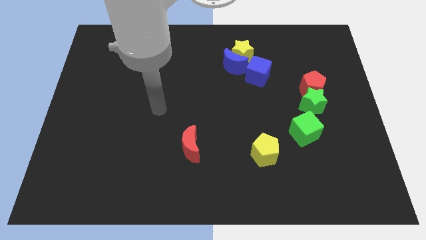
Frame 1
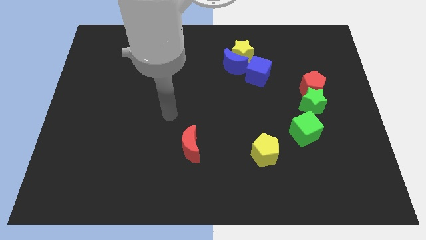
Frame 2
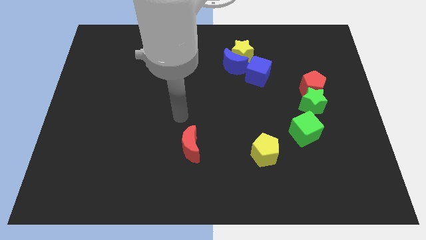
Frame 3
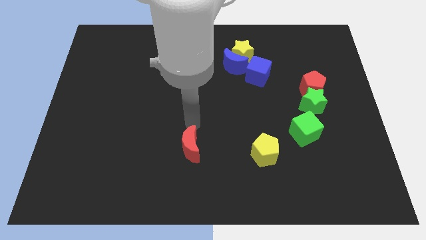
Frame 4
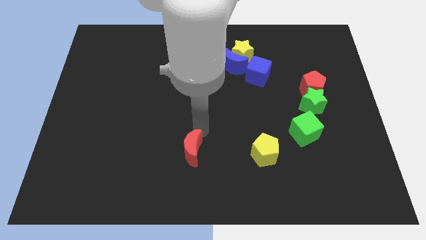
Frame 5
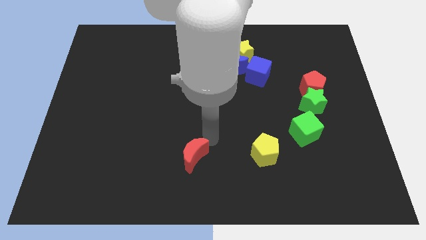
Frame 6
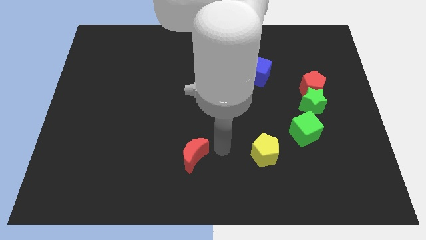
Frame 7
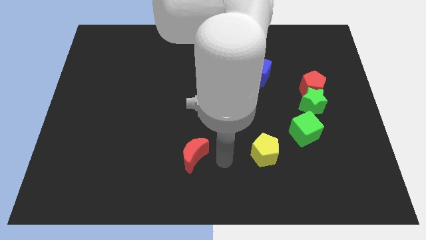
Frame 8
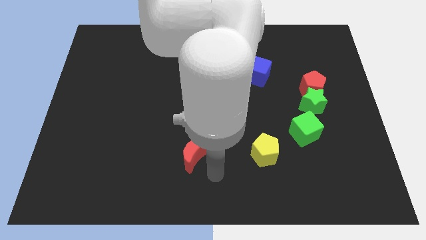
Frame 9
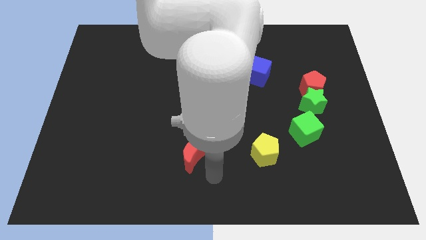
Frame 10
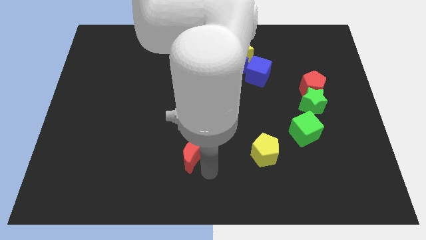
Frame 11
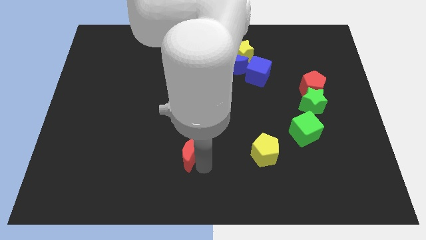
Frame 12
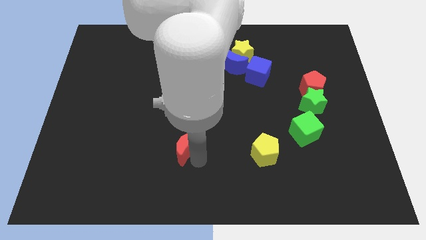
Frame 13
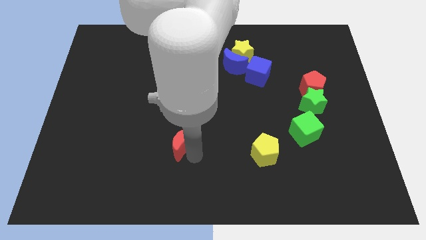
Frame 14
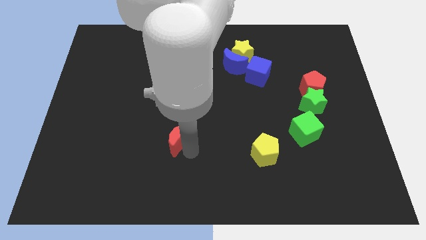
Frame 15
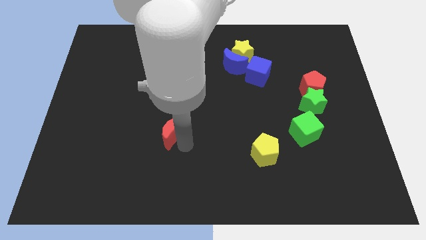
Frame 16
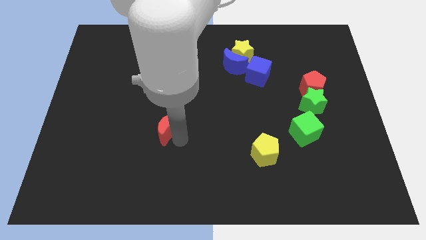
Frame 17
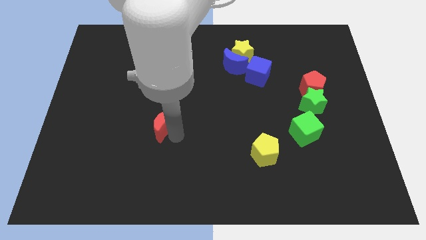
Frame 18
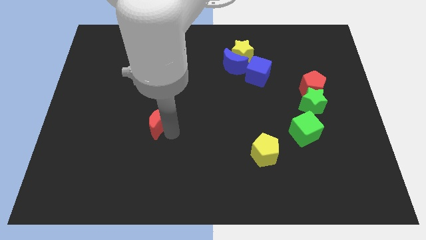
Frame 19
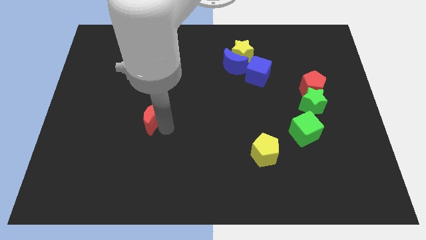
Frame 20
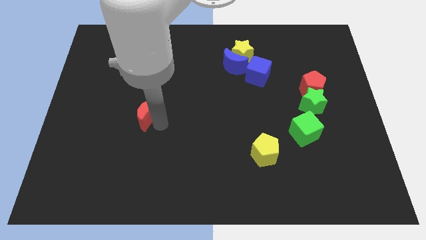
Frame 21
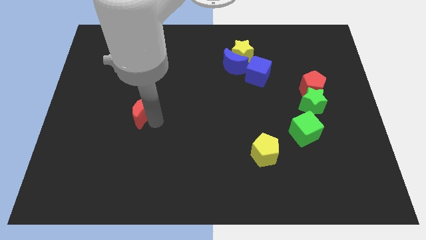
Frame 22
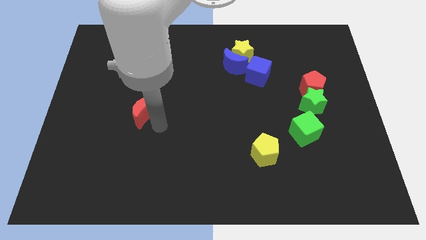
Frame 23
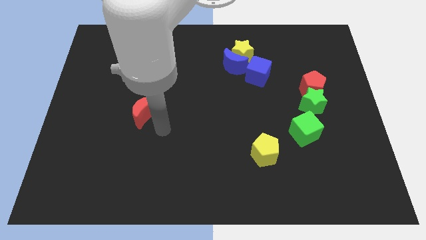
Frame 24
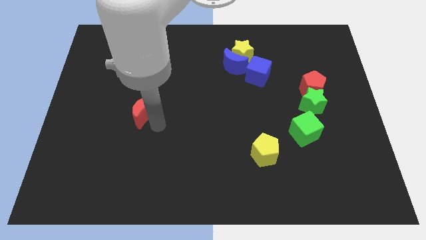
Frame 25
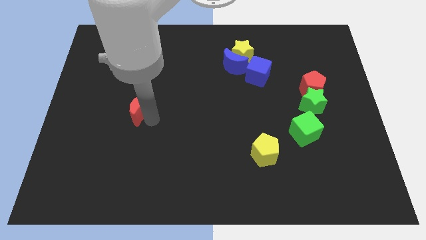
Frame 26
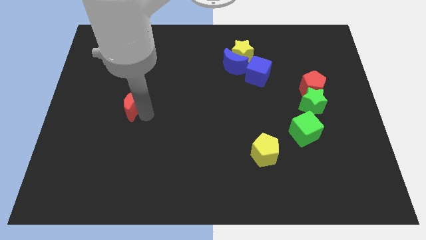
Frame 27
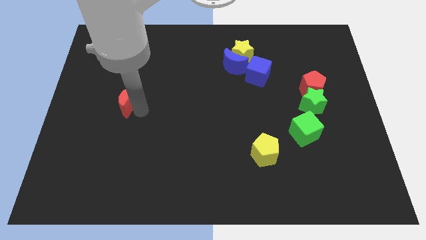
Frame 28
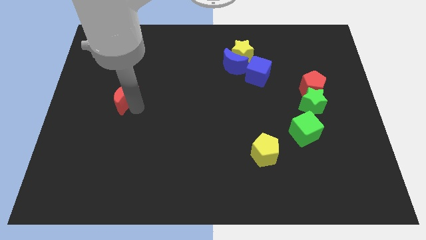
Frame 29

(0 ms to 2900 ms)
move the red moon diagonally upwards and left

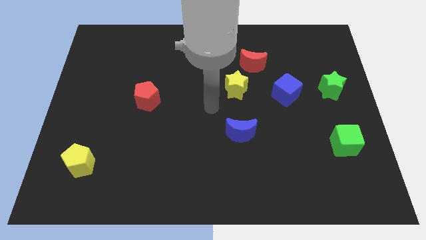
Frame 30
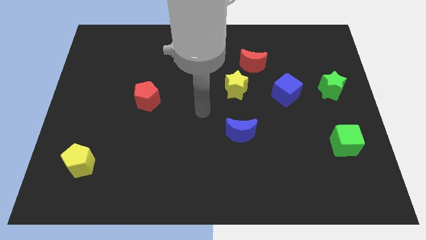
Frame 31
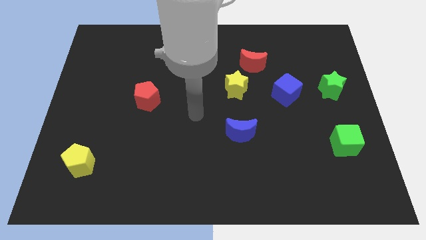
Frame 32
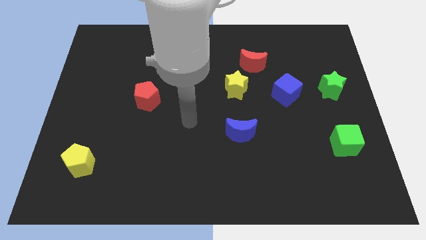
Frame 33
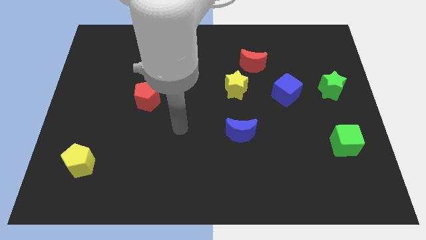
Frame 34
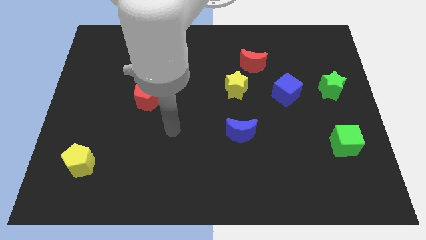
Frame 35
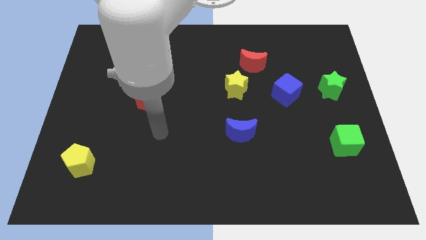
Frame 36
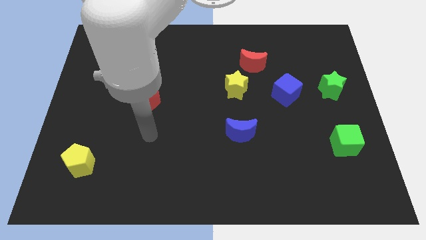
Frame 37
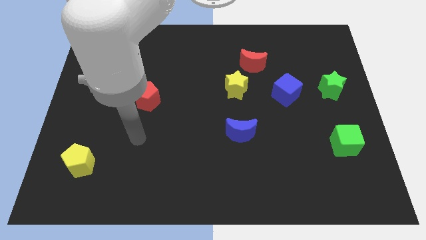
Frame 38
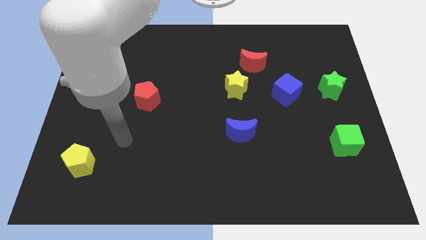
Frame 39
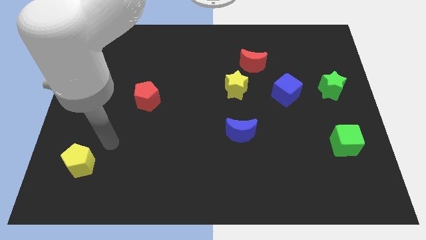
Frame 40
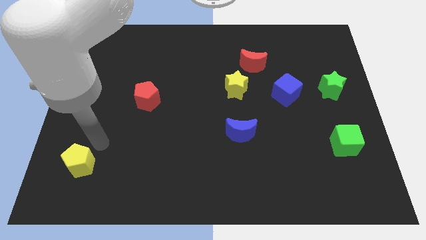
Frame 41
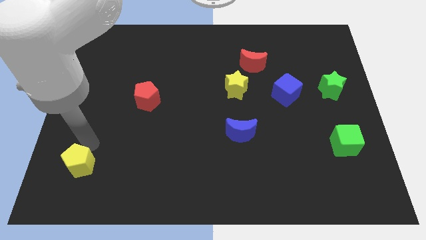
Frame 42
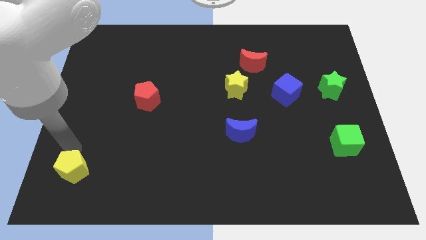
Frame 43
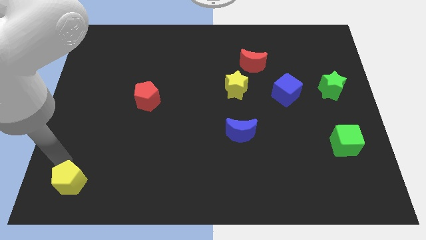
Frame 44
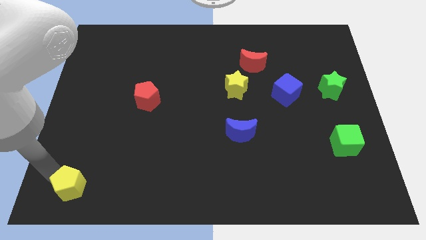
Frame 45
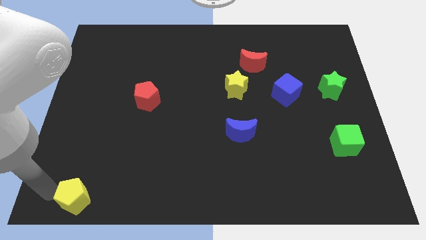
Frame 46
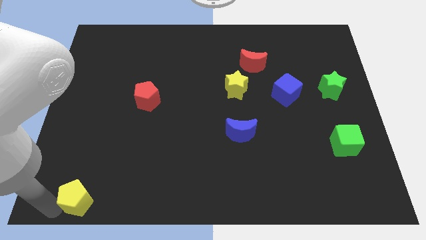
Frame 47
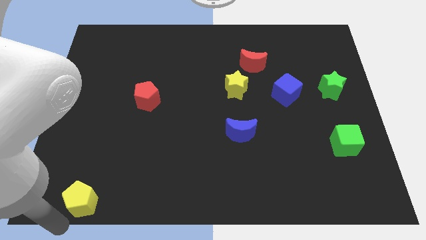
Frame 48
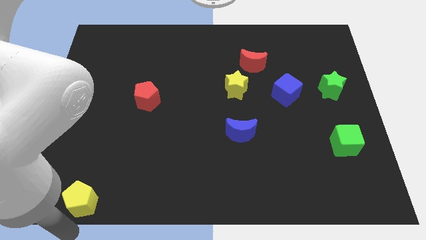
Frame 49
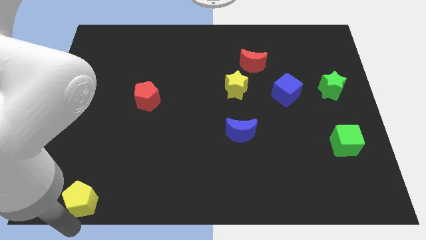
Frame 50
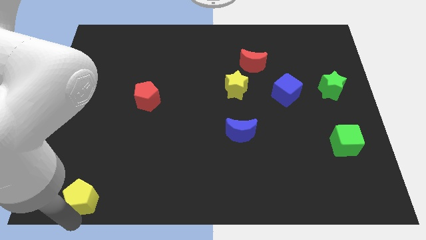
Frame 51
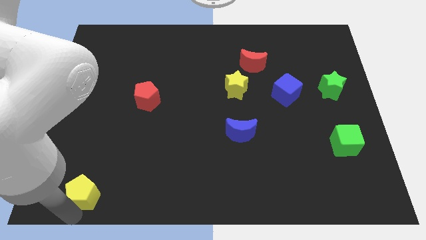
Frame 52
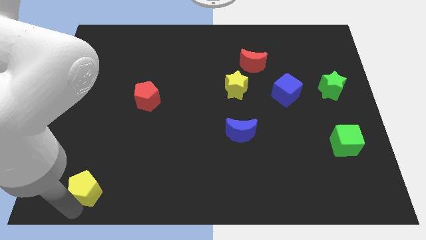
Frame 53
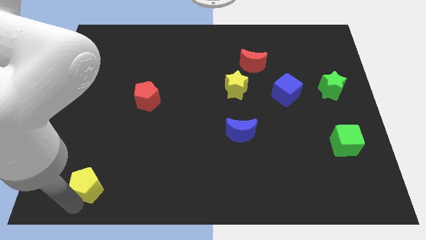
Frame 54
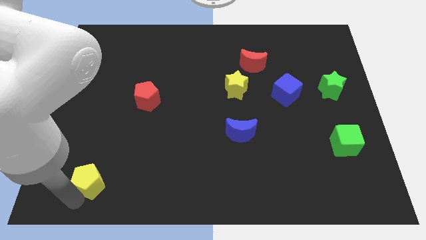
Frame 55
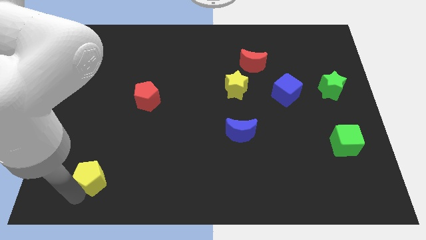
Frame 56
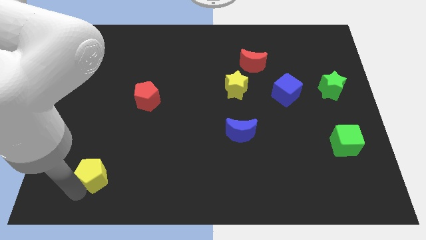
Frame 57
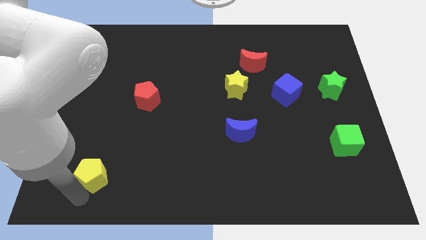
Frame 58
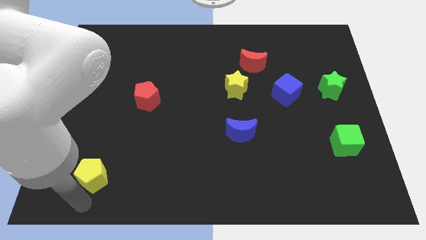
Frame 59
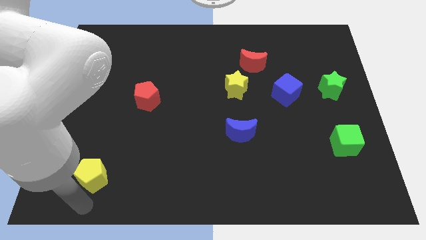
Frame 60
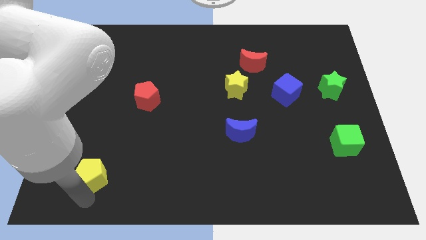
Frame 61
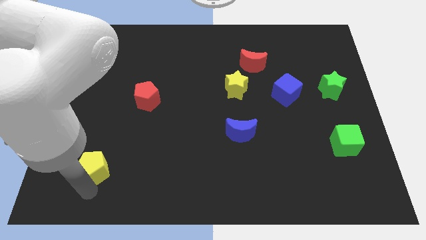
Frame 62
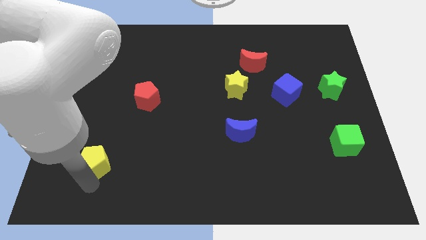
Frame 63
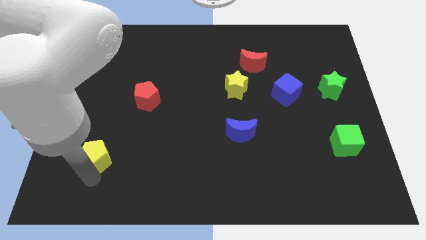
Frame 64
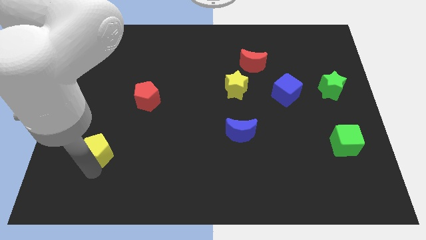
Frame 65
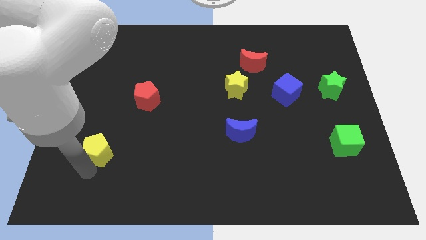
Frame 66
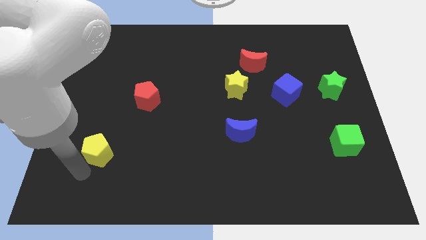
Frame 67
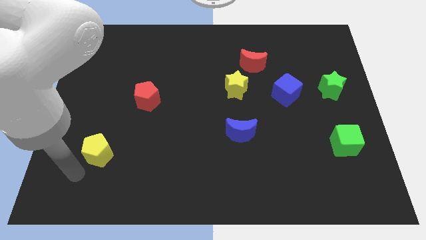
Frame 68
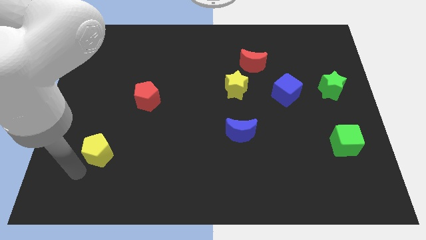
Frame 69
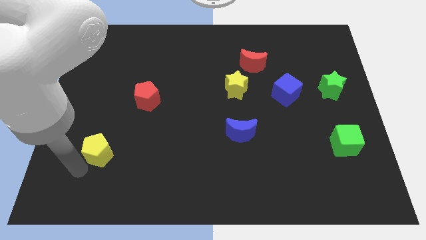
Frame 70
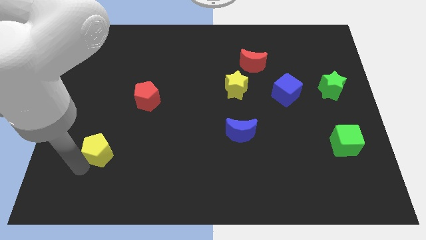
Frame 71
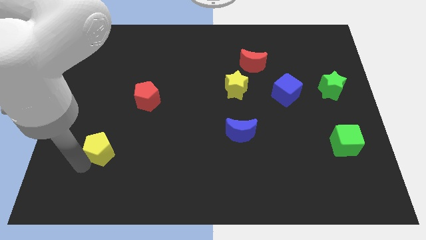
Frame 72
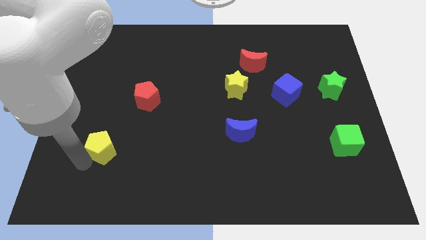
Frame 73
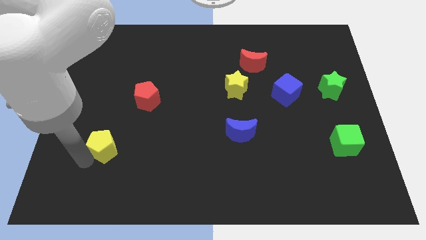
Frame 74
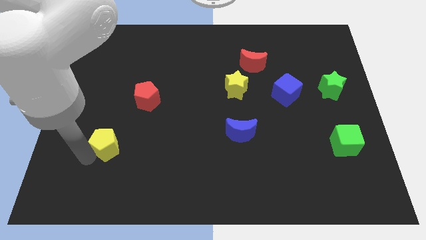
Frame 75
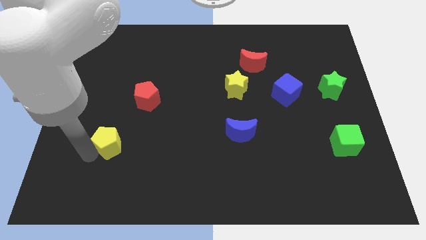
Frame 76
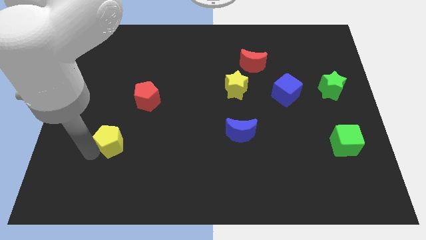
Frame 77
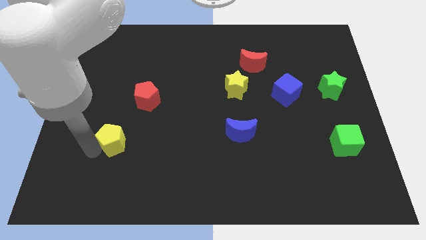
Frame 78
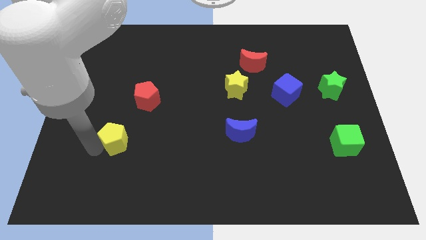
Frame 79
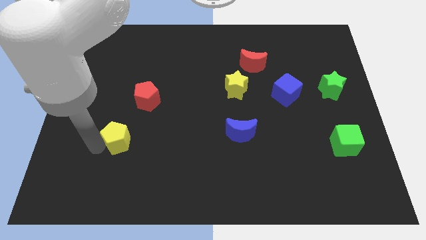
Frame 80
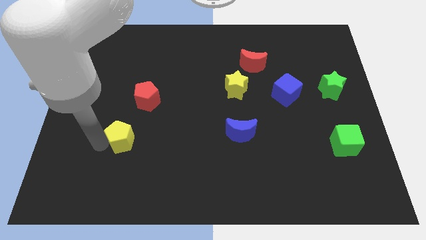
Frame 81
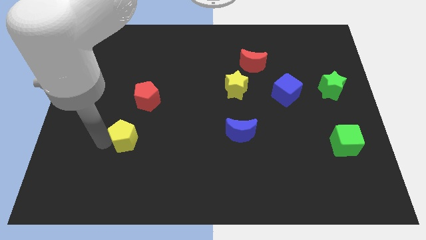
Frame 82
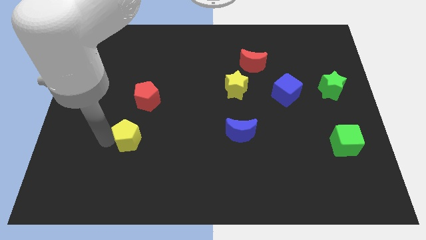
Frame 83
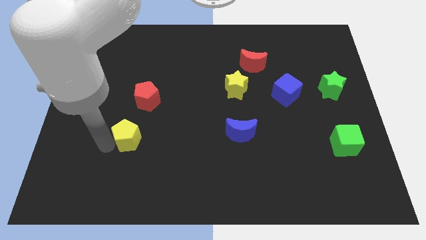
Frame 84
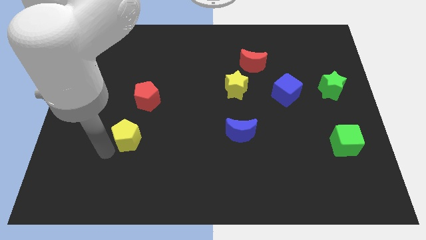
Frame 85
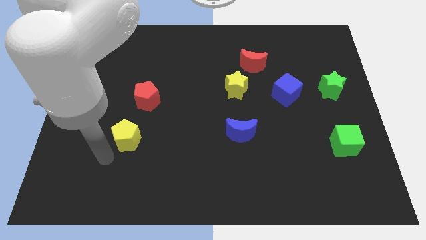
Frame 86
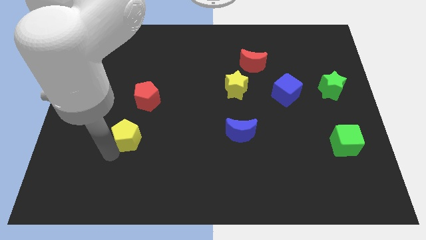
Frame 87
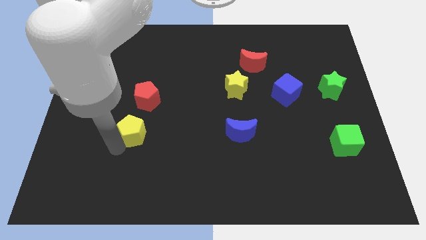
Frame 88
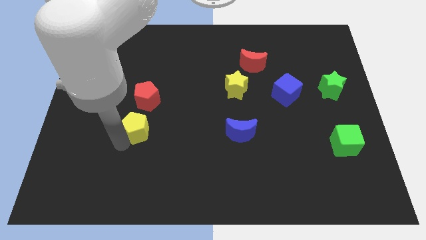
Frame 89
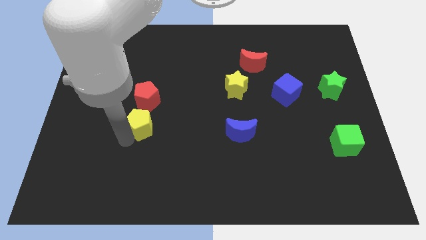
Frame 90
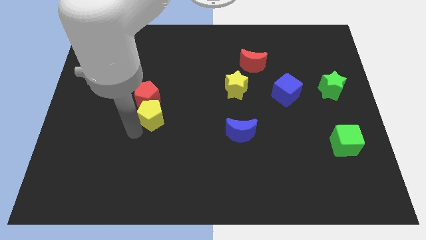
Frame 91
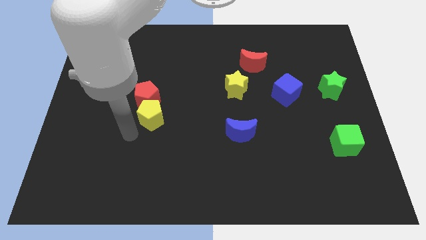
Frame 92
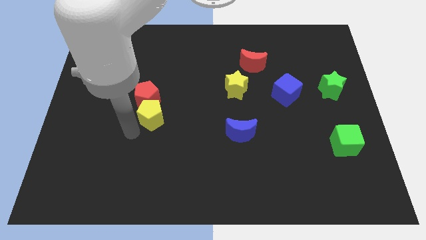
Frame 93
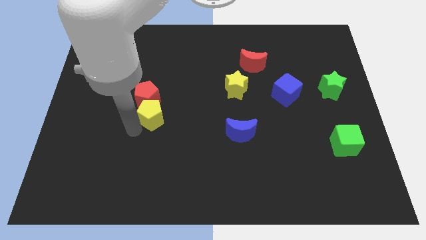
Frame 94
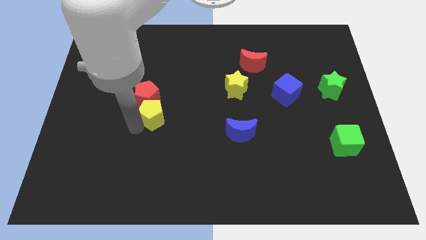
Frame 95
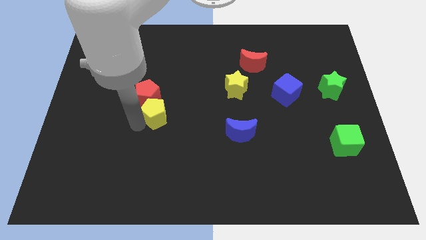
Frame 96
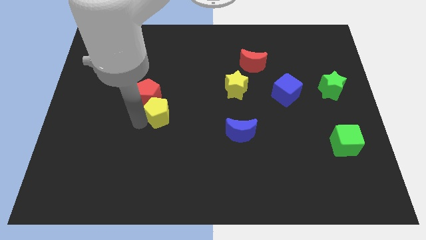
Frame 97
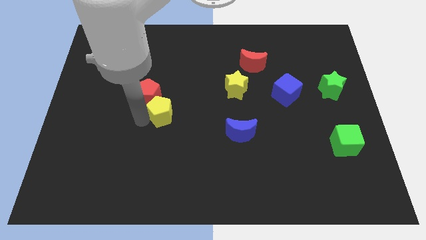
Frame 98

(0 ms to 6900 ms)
slide the yellow pentagon up and then to the right
